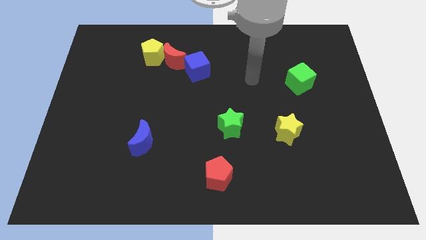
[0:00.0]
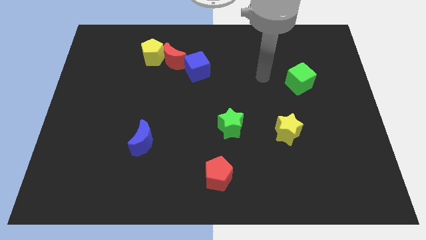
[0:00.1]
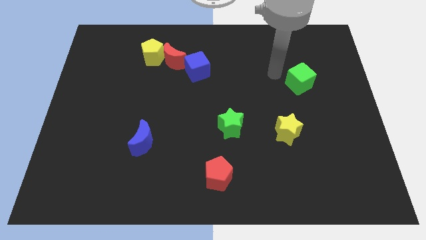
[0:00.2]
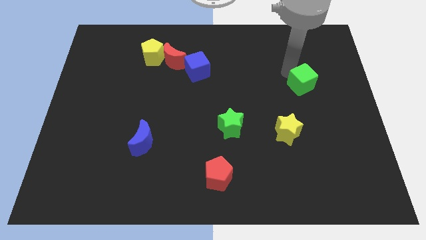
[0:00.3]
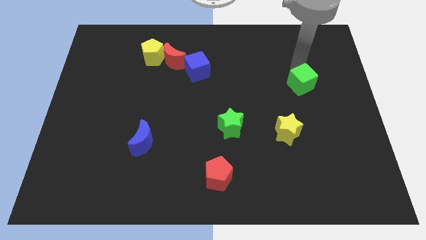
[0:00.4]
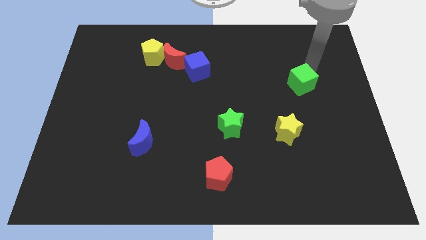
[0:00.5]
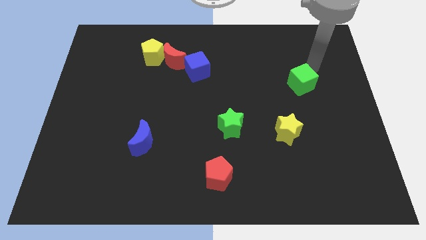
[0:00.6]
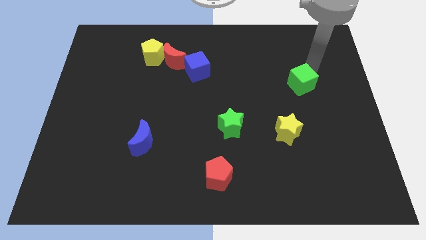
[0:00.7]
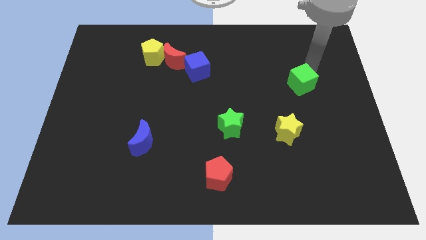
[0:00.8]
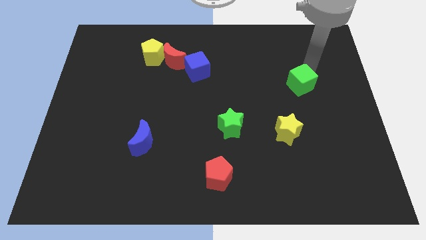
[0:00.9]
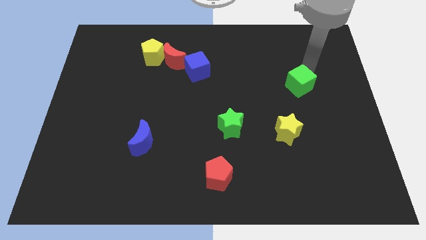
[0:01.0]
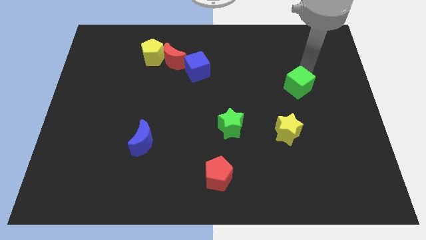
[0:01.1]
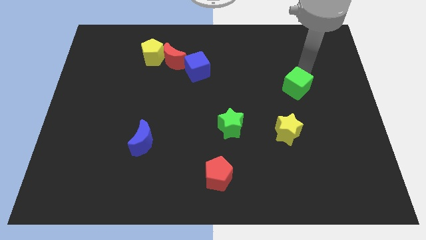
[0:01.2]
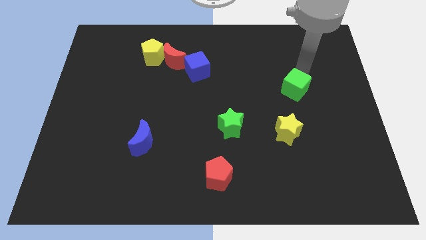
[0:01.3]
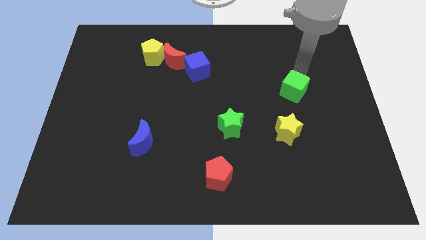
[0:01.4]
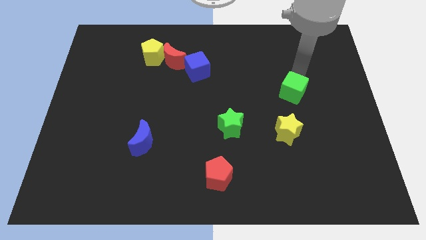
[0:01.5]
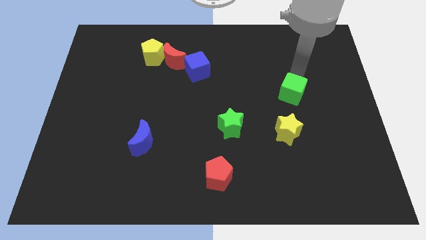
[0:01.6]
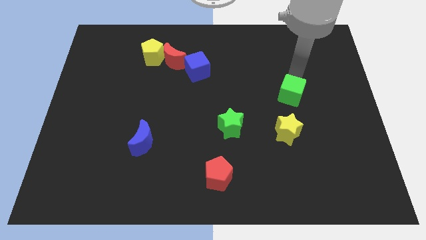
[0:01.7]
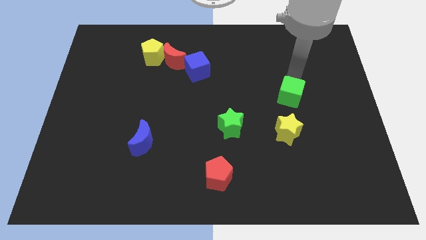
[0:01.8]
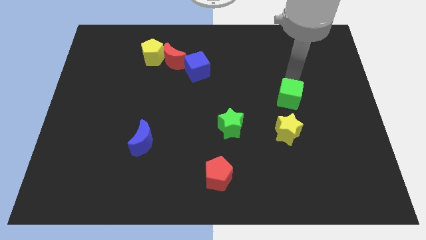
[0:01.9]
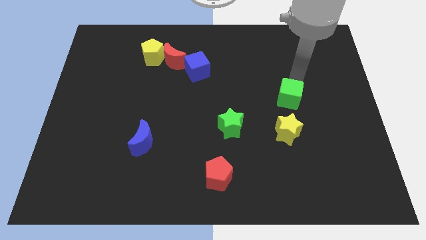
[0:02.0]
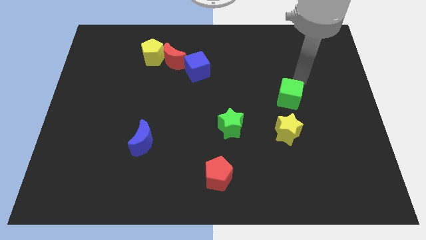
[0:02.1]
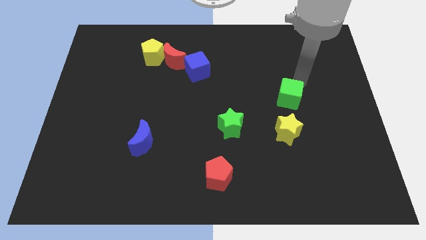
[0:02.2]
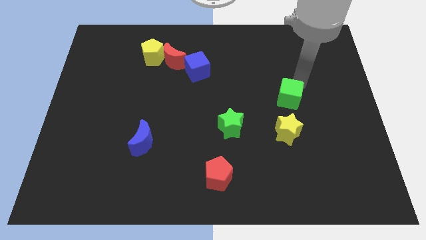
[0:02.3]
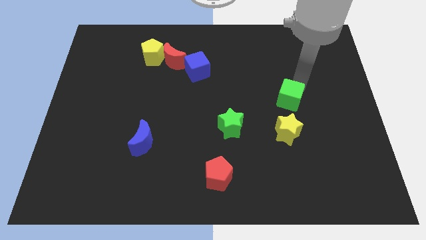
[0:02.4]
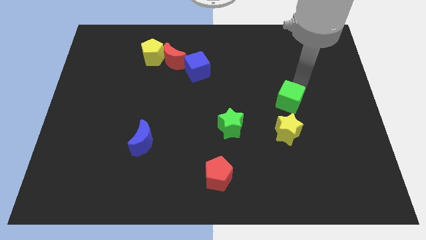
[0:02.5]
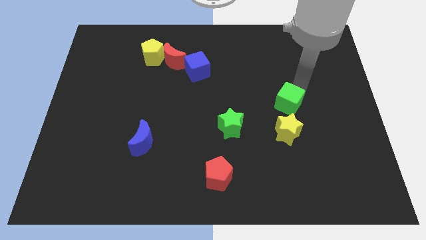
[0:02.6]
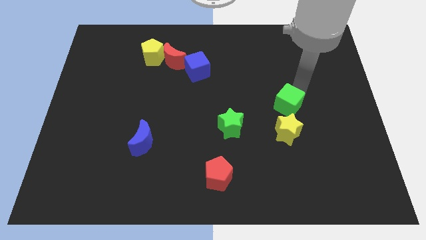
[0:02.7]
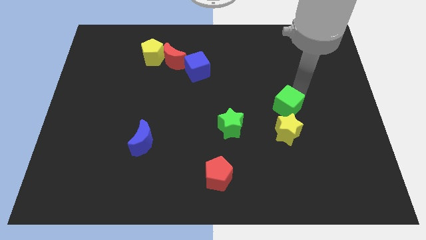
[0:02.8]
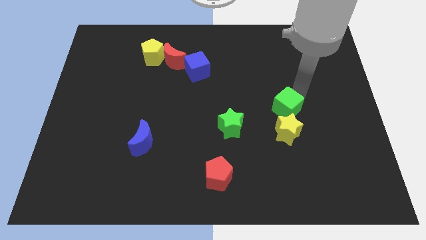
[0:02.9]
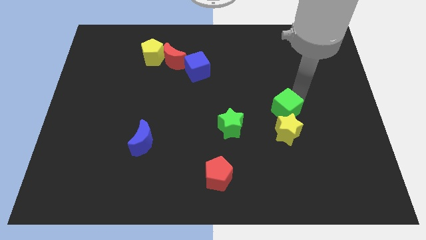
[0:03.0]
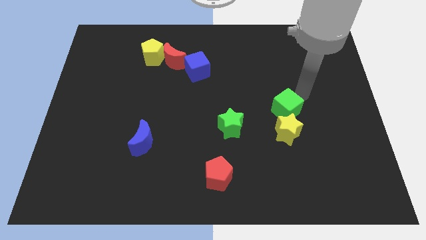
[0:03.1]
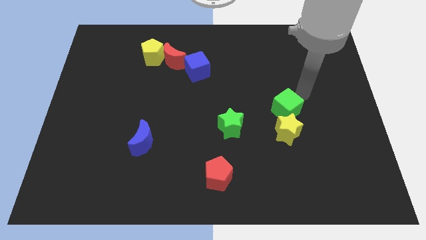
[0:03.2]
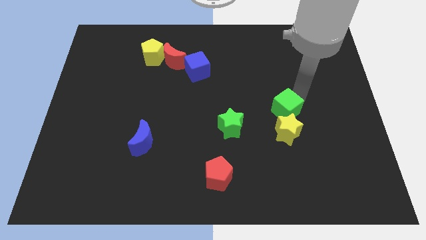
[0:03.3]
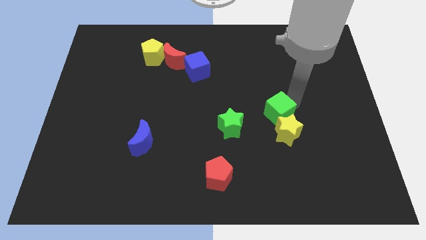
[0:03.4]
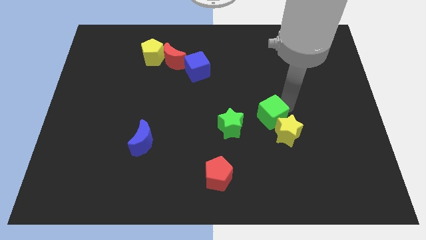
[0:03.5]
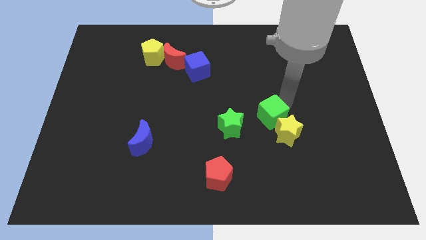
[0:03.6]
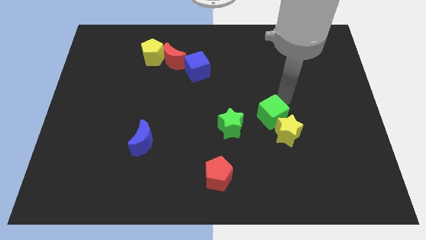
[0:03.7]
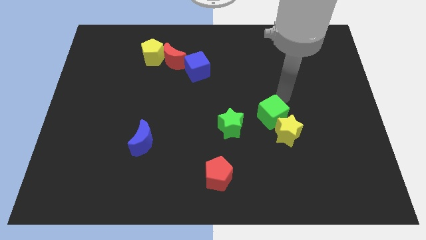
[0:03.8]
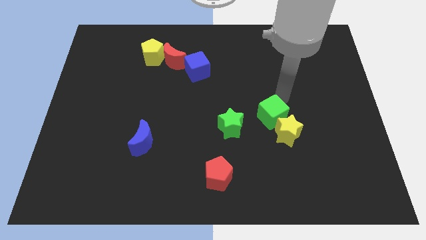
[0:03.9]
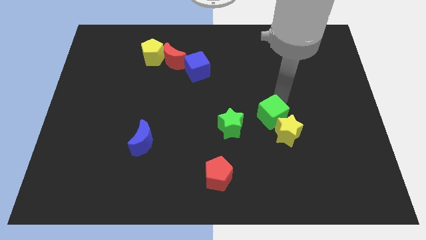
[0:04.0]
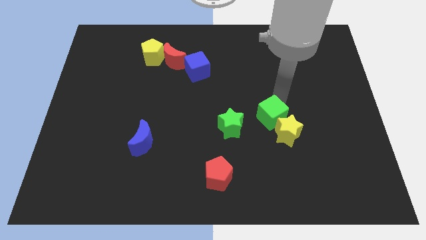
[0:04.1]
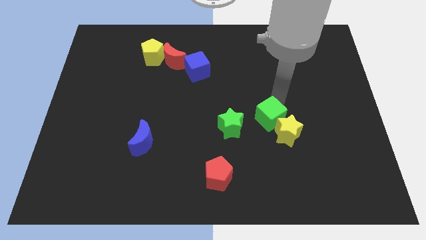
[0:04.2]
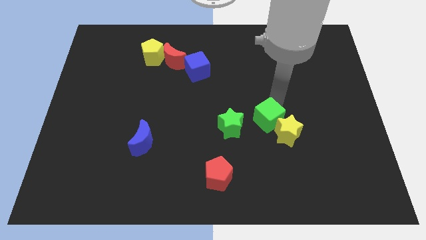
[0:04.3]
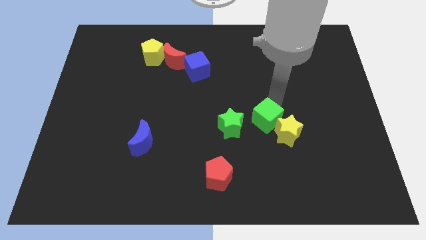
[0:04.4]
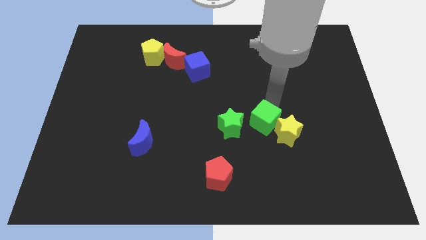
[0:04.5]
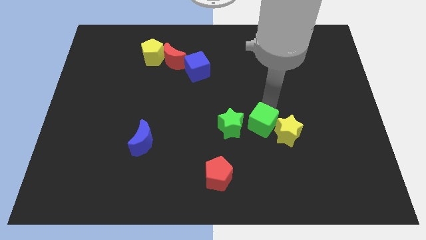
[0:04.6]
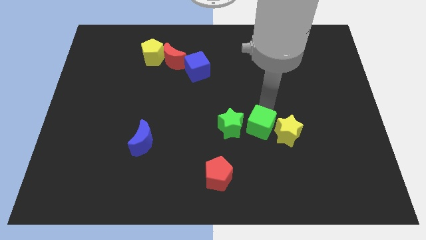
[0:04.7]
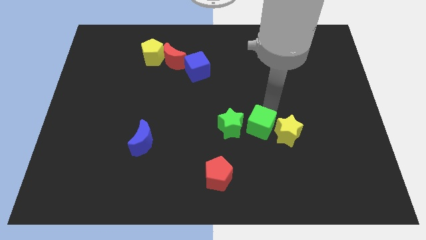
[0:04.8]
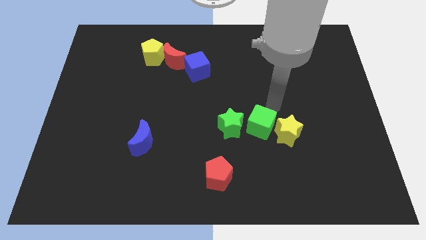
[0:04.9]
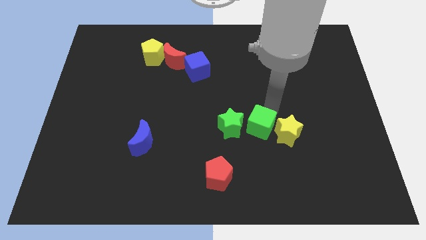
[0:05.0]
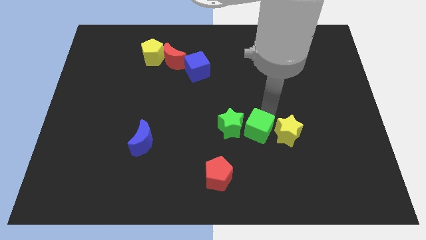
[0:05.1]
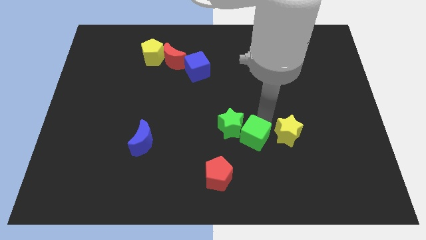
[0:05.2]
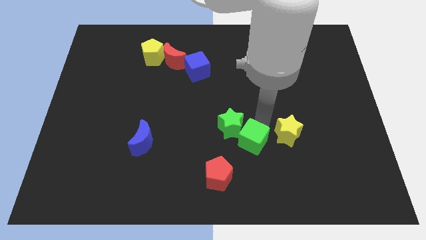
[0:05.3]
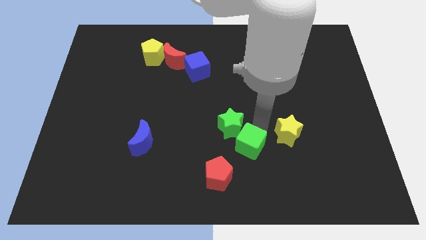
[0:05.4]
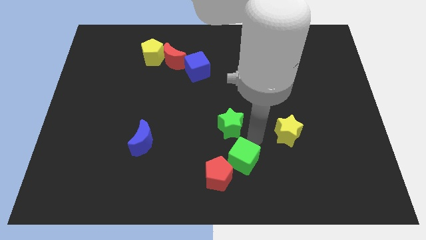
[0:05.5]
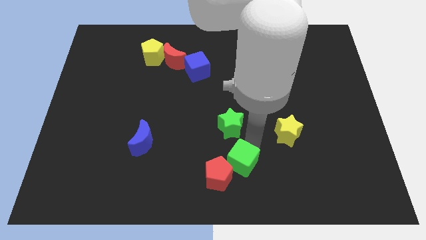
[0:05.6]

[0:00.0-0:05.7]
push the green cube towards the red pentagon

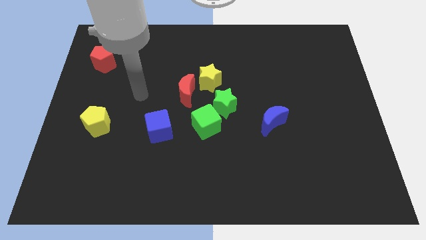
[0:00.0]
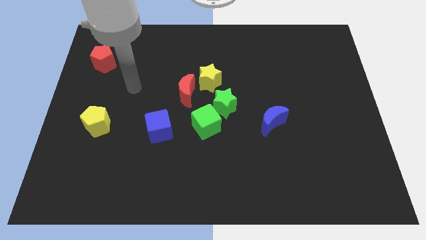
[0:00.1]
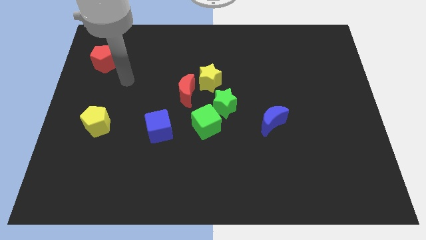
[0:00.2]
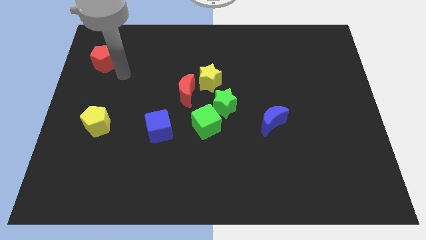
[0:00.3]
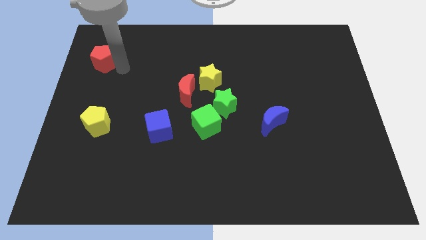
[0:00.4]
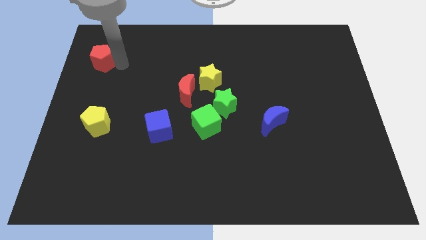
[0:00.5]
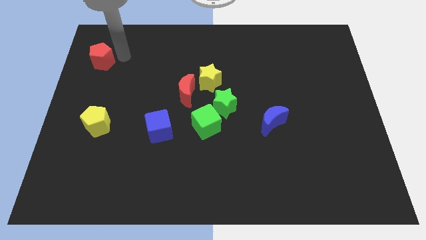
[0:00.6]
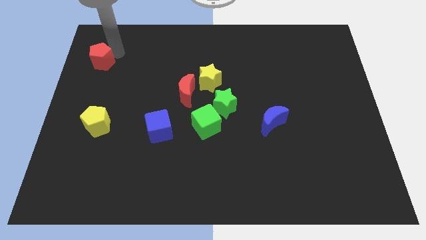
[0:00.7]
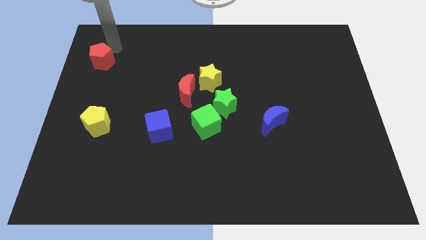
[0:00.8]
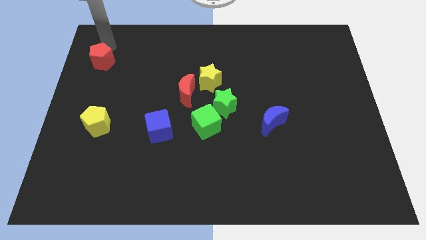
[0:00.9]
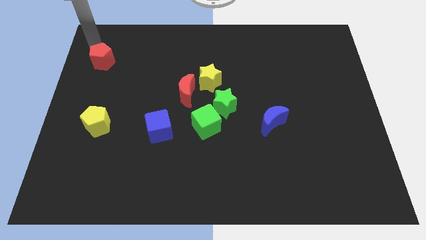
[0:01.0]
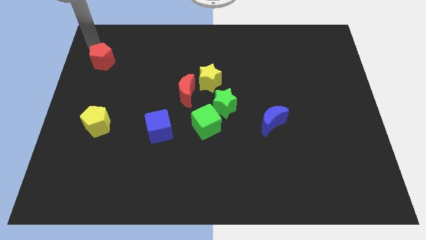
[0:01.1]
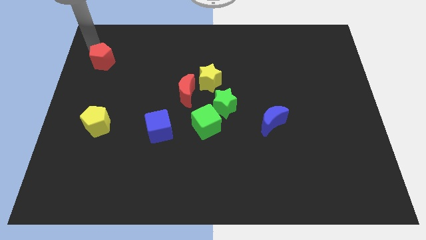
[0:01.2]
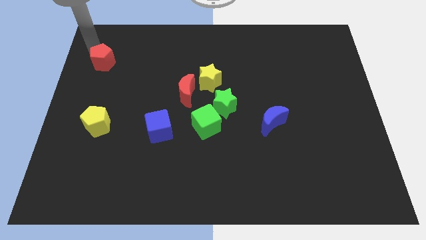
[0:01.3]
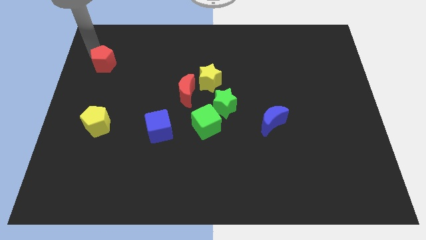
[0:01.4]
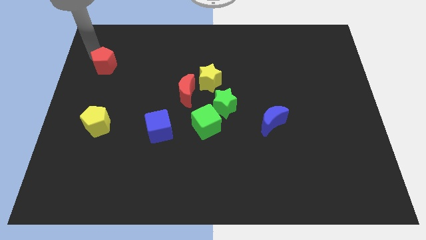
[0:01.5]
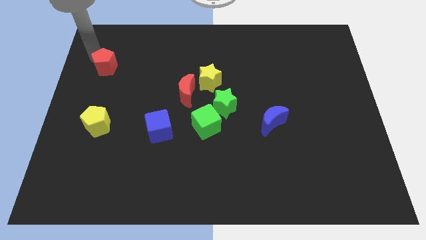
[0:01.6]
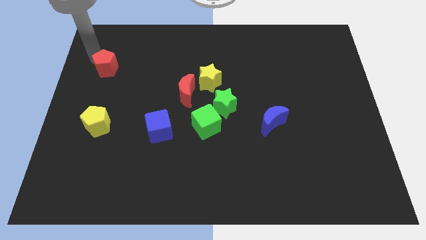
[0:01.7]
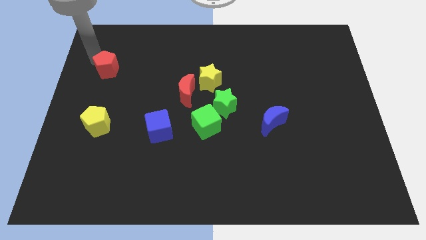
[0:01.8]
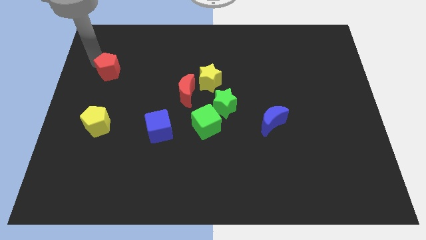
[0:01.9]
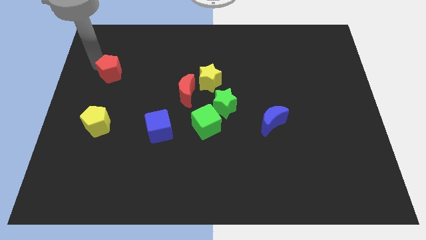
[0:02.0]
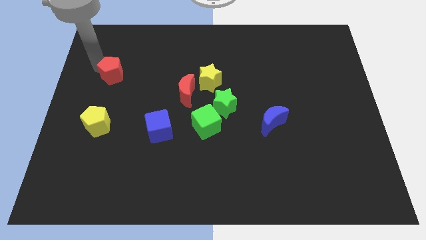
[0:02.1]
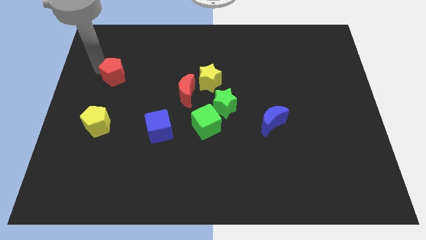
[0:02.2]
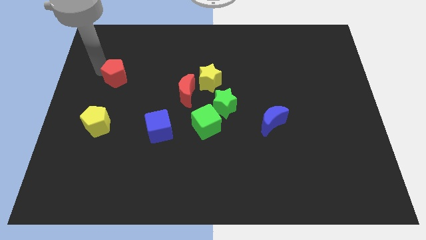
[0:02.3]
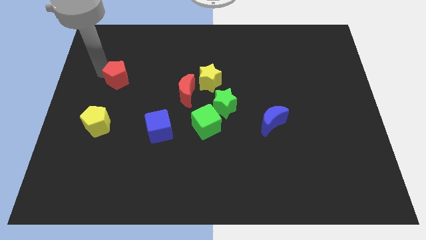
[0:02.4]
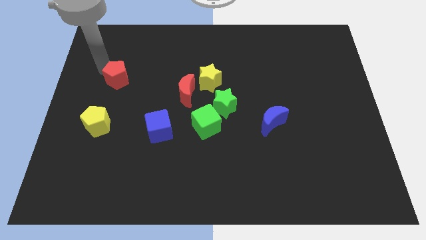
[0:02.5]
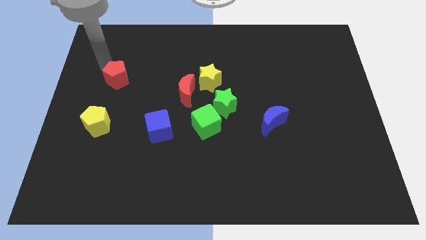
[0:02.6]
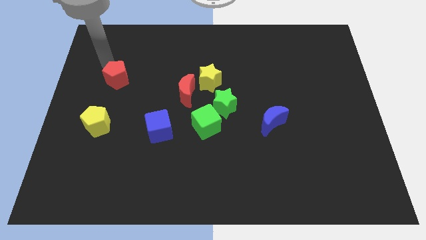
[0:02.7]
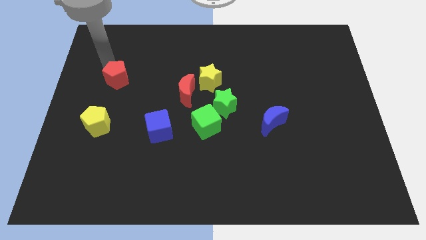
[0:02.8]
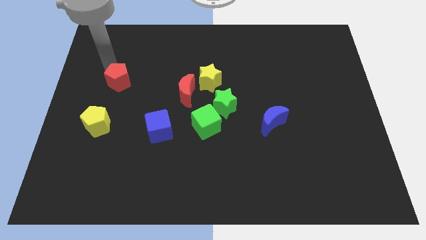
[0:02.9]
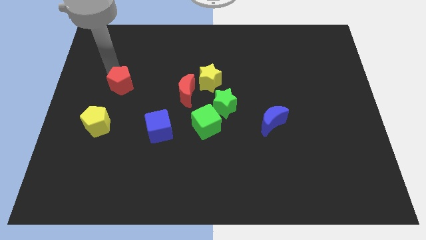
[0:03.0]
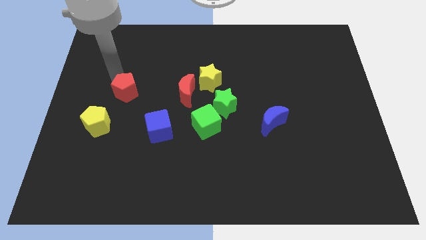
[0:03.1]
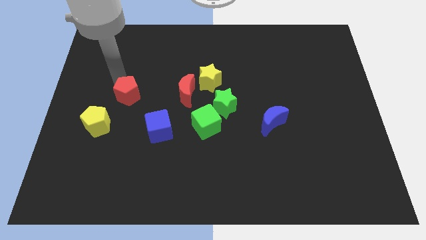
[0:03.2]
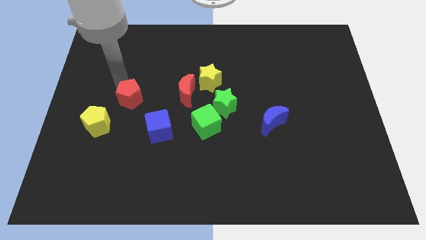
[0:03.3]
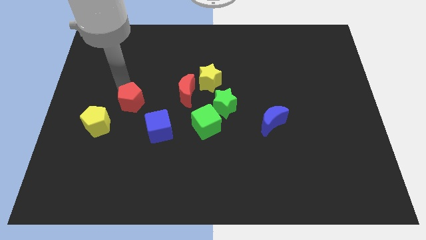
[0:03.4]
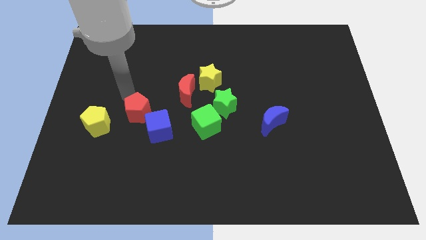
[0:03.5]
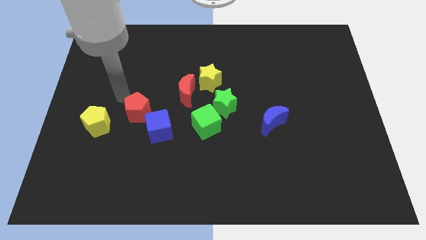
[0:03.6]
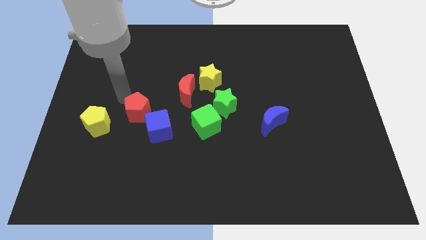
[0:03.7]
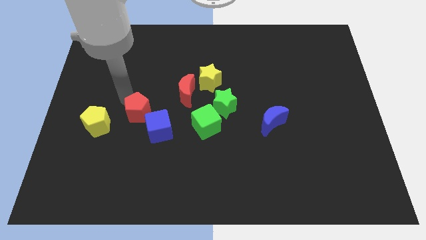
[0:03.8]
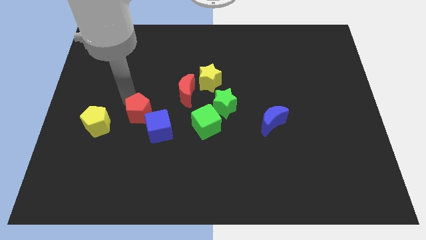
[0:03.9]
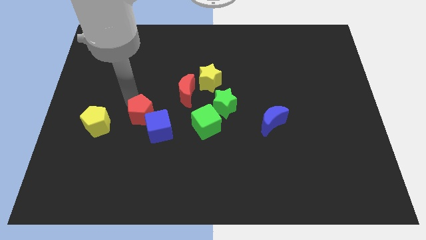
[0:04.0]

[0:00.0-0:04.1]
put the red pentagon close to the blue cube
